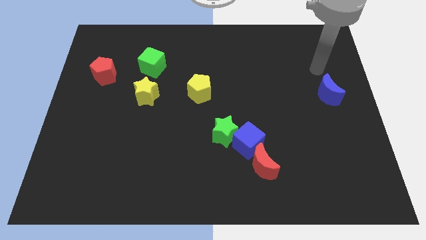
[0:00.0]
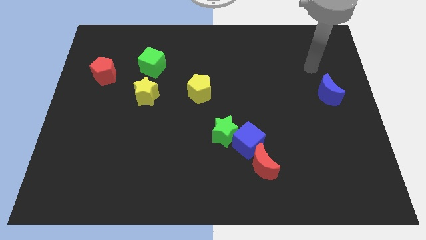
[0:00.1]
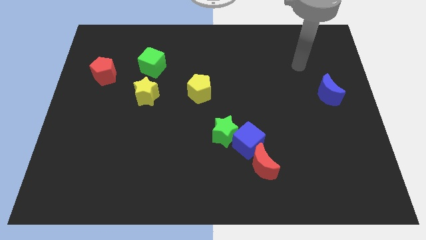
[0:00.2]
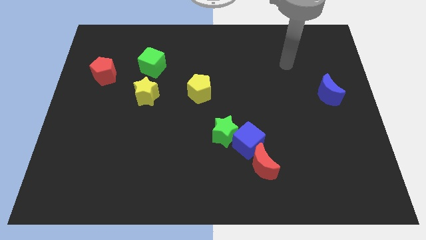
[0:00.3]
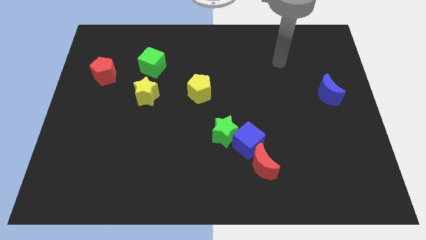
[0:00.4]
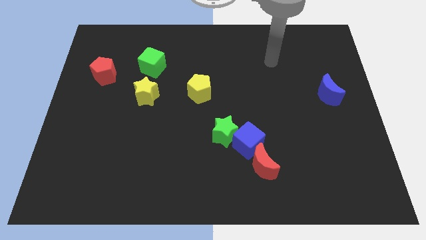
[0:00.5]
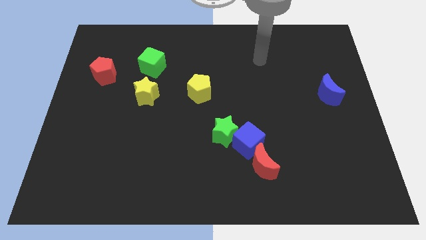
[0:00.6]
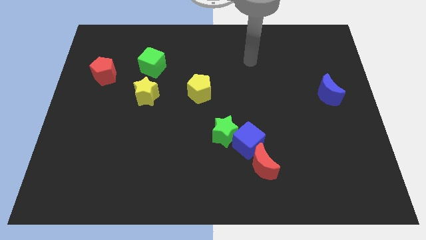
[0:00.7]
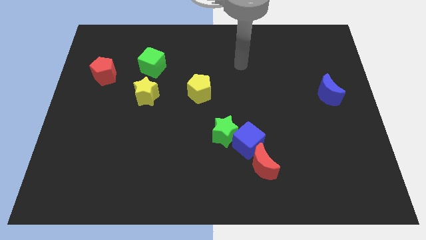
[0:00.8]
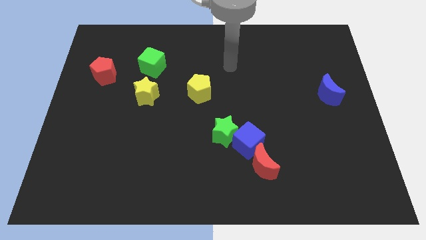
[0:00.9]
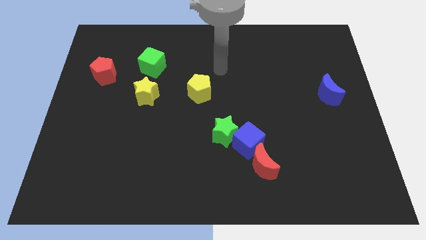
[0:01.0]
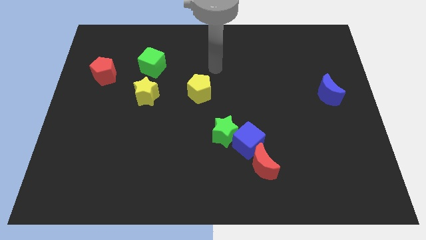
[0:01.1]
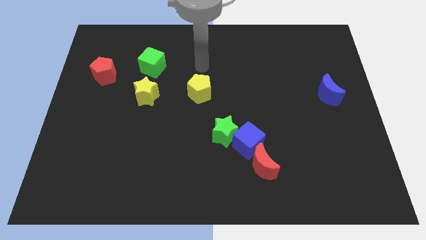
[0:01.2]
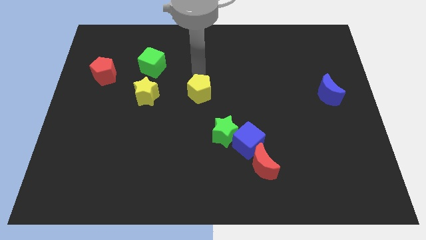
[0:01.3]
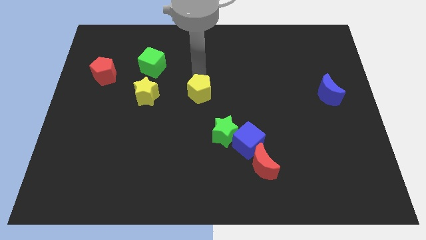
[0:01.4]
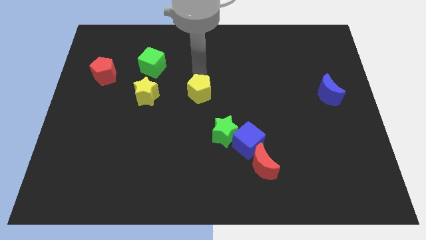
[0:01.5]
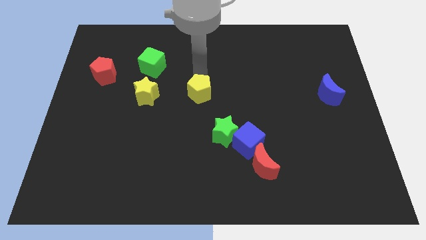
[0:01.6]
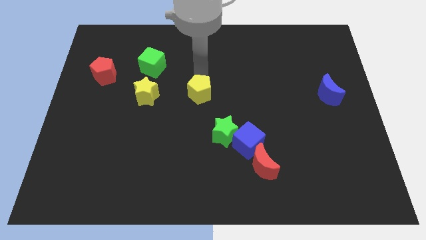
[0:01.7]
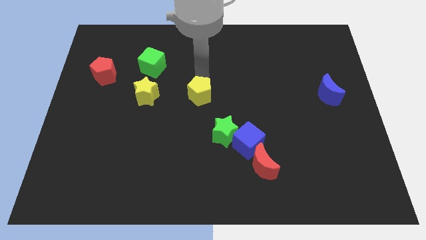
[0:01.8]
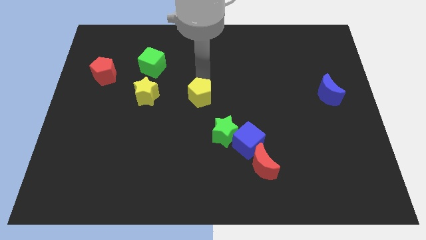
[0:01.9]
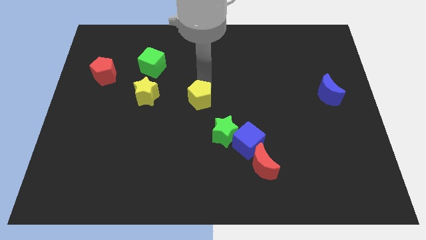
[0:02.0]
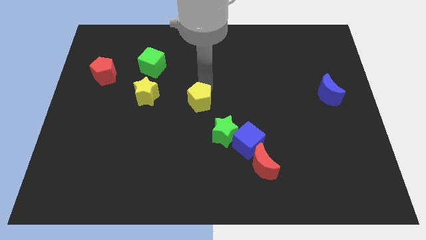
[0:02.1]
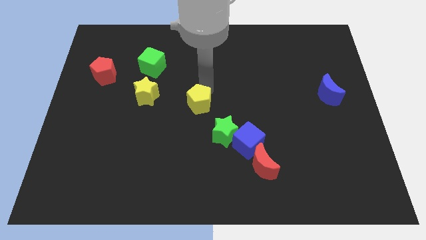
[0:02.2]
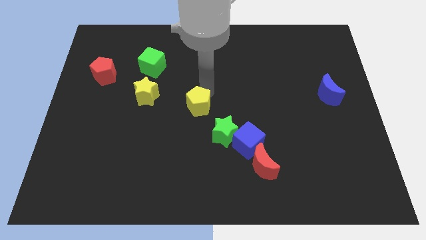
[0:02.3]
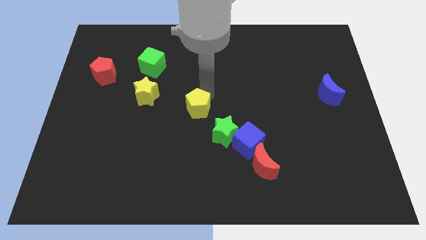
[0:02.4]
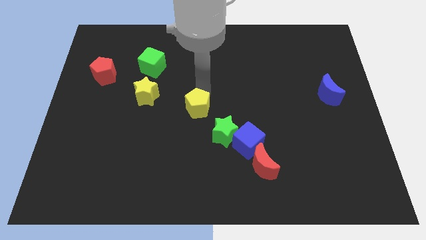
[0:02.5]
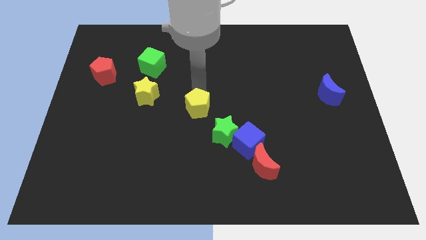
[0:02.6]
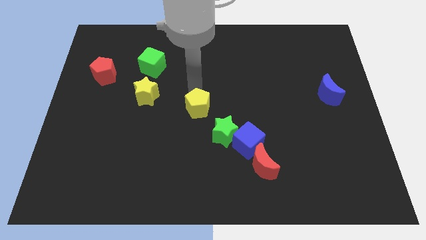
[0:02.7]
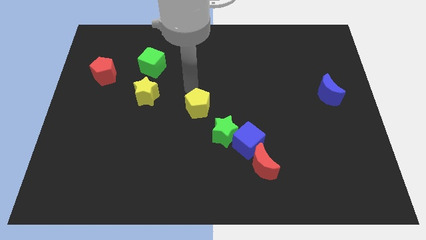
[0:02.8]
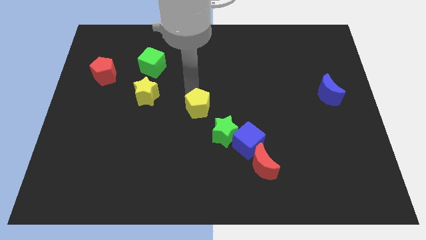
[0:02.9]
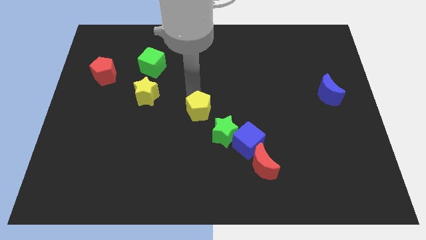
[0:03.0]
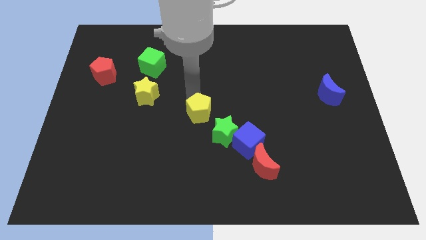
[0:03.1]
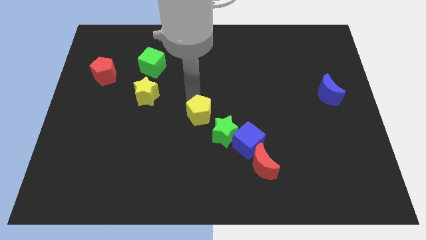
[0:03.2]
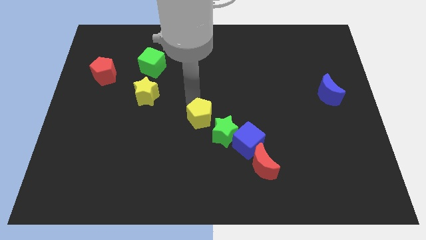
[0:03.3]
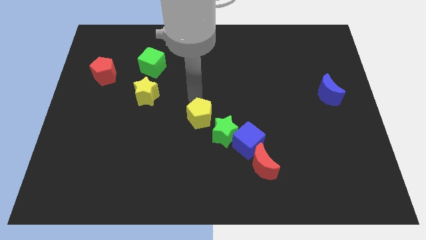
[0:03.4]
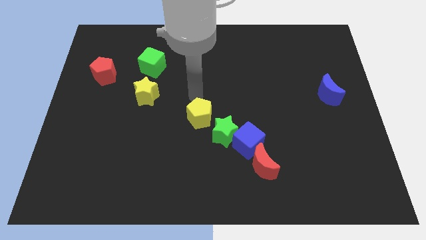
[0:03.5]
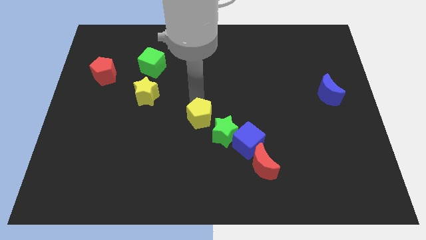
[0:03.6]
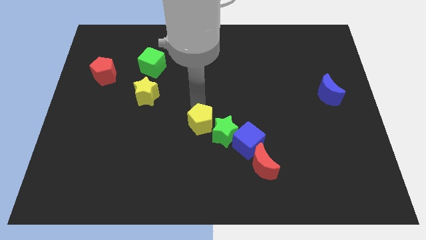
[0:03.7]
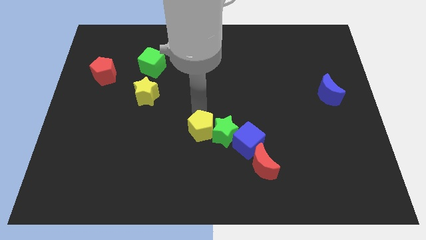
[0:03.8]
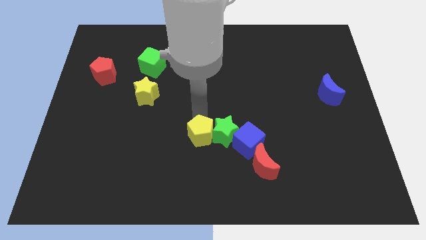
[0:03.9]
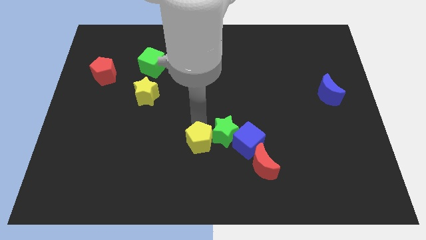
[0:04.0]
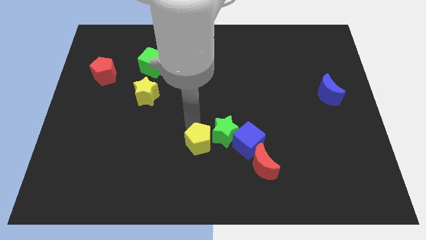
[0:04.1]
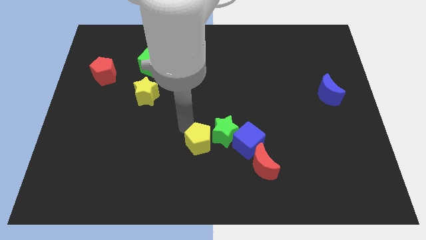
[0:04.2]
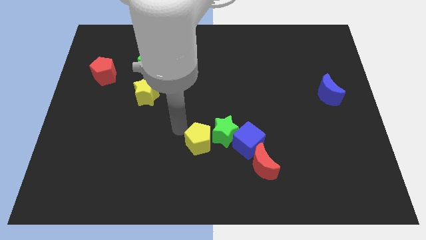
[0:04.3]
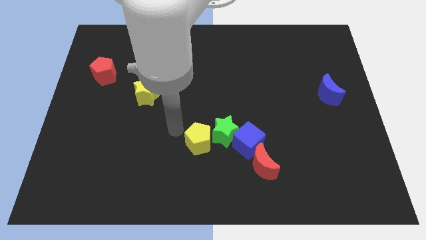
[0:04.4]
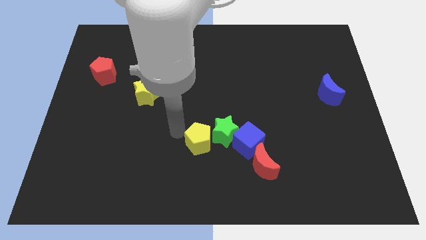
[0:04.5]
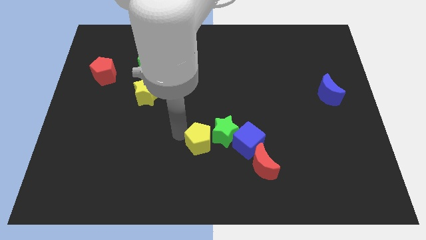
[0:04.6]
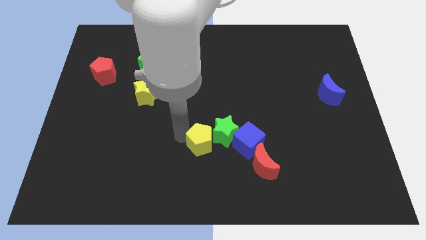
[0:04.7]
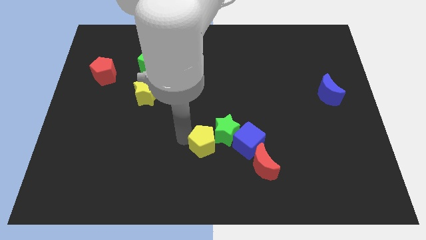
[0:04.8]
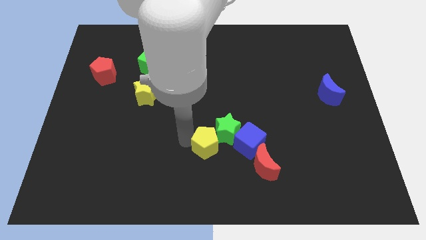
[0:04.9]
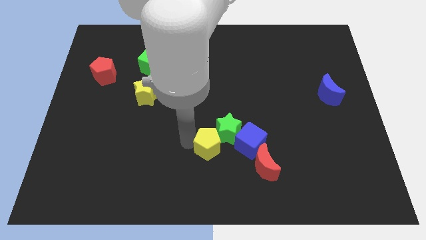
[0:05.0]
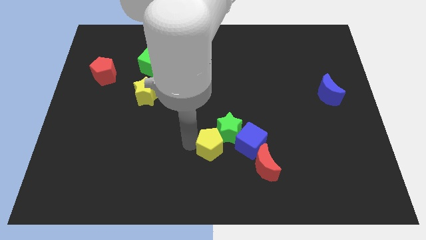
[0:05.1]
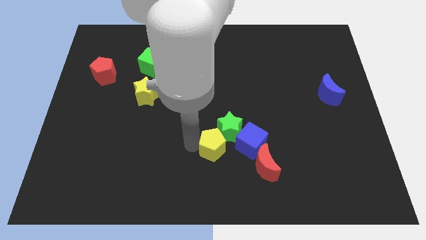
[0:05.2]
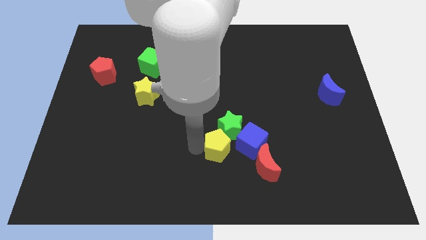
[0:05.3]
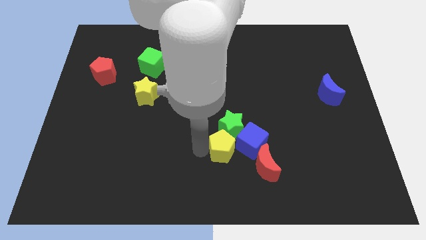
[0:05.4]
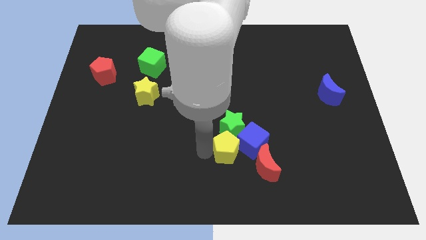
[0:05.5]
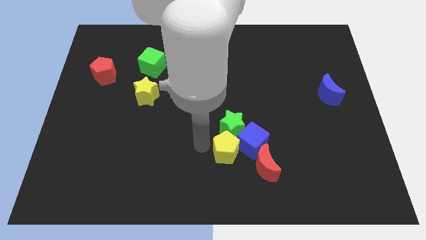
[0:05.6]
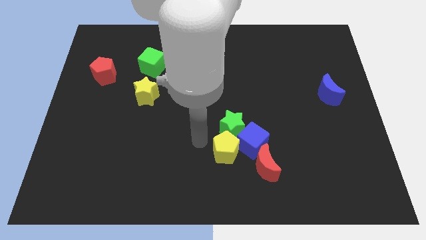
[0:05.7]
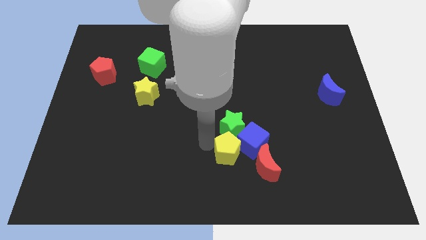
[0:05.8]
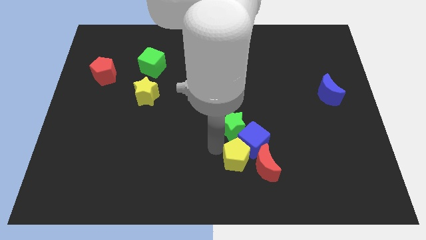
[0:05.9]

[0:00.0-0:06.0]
put the yellow pentagon next to the red moon

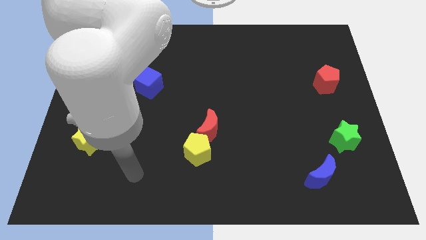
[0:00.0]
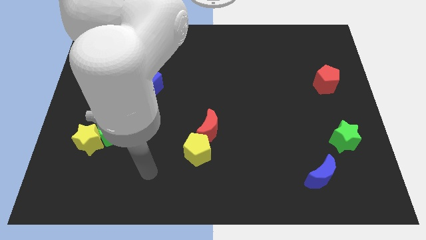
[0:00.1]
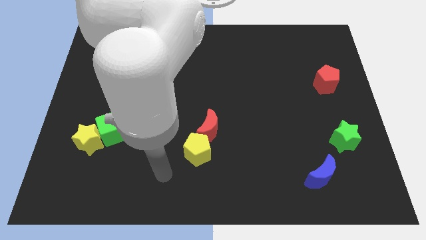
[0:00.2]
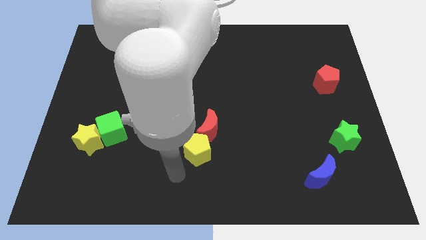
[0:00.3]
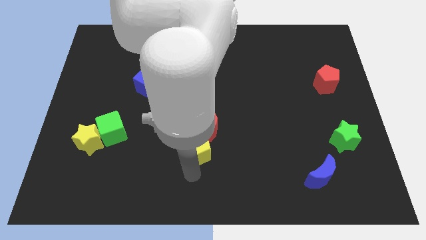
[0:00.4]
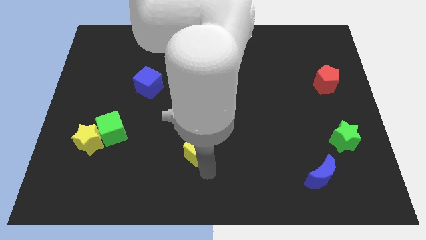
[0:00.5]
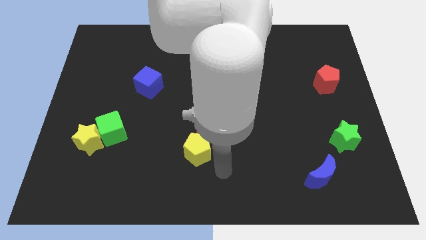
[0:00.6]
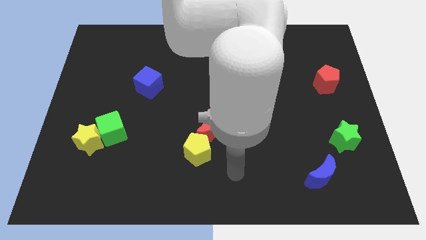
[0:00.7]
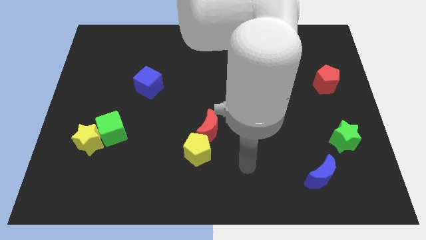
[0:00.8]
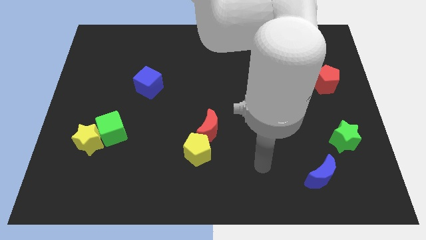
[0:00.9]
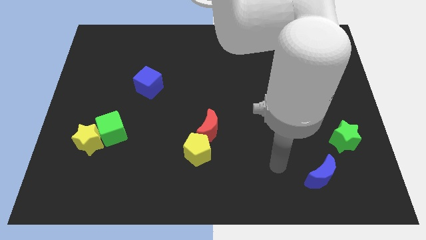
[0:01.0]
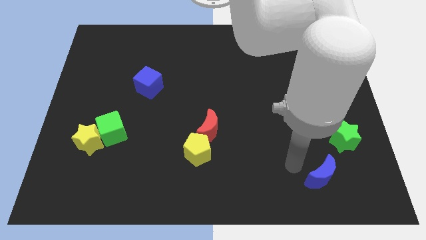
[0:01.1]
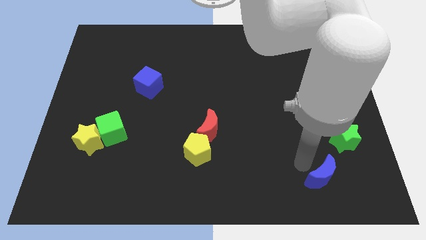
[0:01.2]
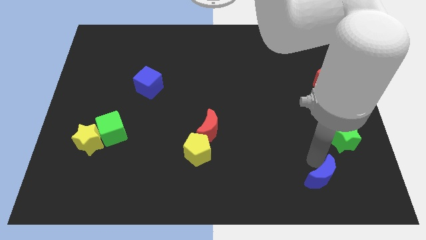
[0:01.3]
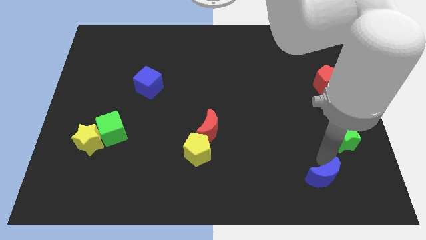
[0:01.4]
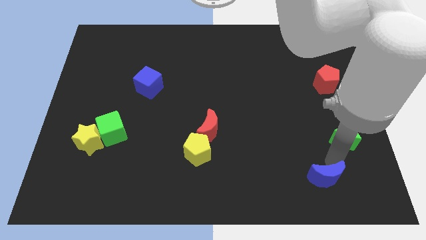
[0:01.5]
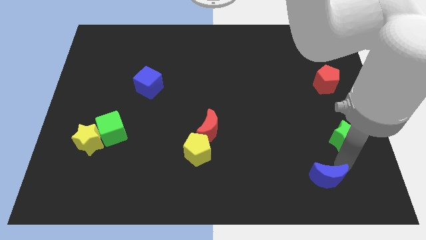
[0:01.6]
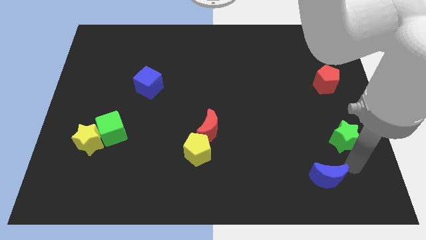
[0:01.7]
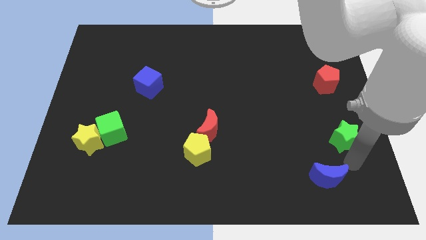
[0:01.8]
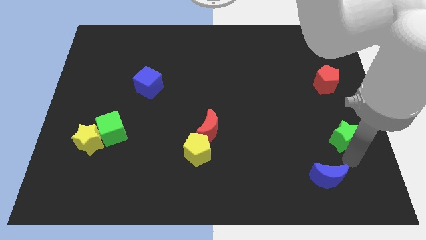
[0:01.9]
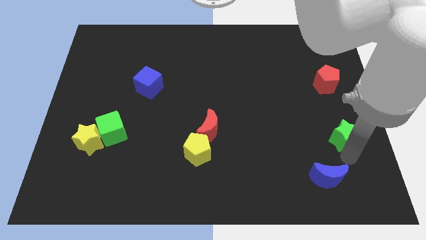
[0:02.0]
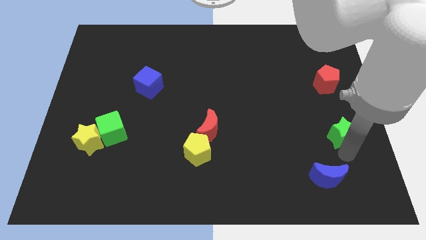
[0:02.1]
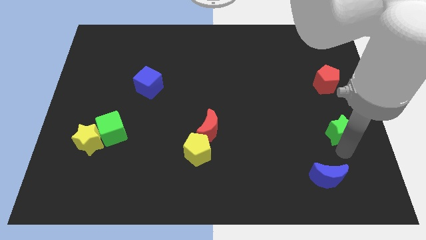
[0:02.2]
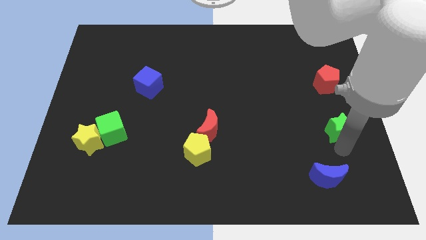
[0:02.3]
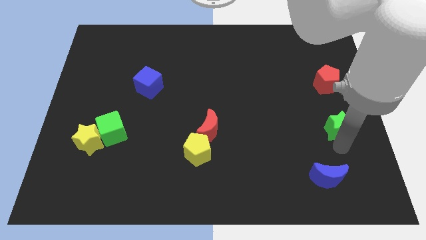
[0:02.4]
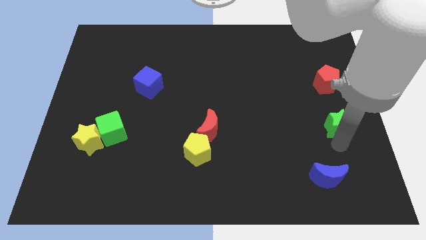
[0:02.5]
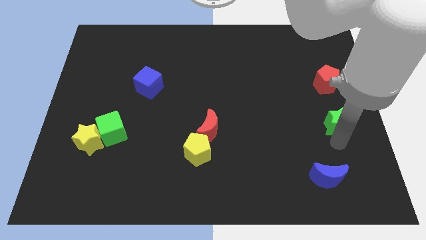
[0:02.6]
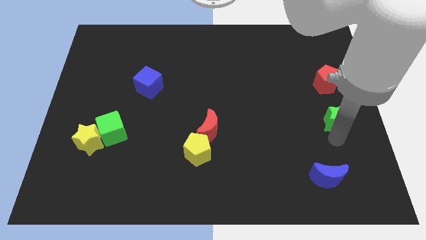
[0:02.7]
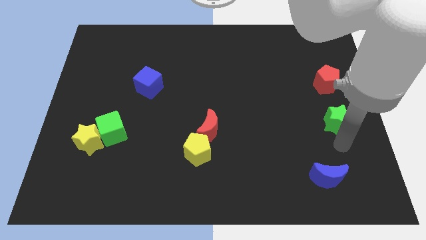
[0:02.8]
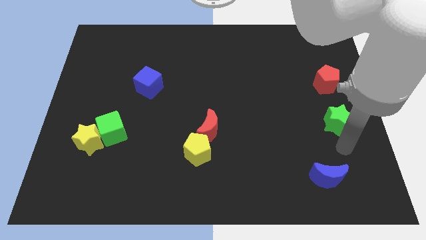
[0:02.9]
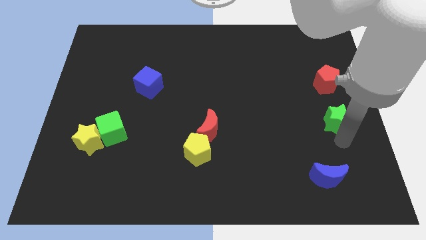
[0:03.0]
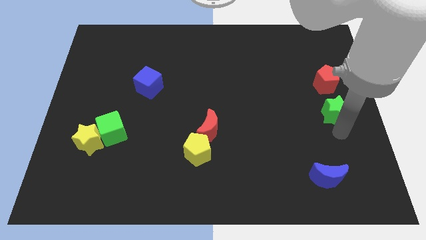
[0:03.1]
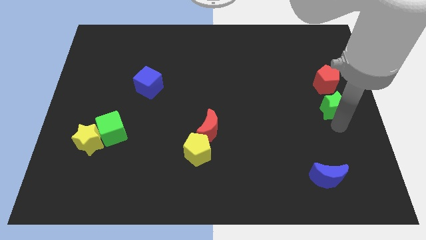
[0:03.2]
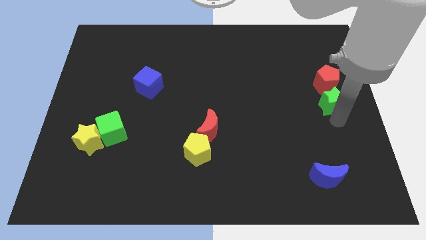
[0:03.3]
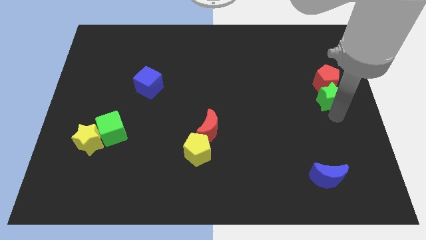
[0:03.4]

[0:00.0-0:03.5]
push the green star close to the red pentagon
